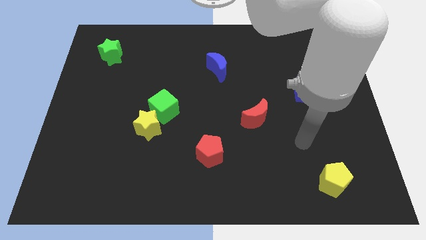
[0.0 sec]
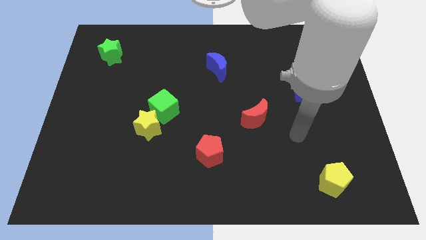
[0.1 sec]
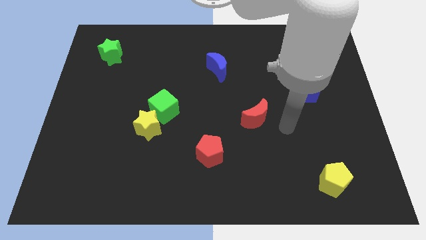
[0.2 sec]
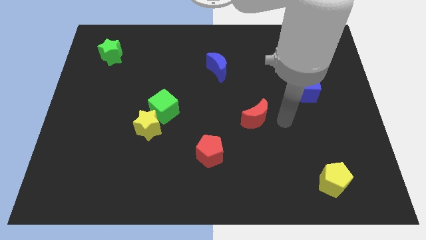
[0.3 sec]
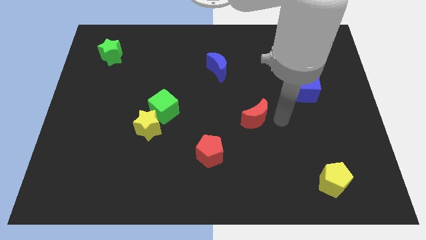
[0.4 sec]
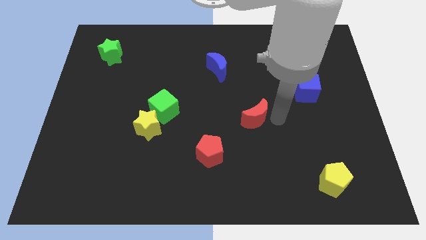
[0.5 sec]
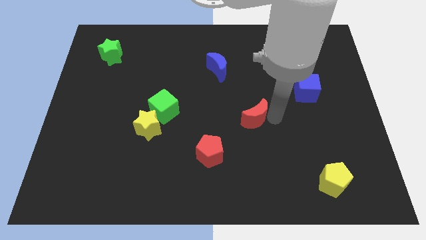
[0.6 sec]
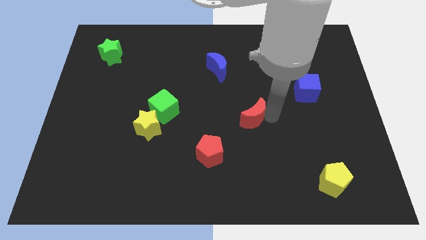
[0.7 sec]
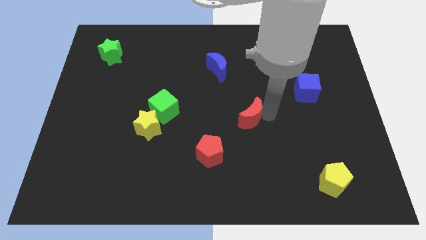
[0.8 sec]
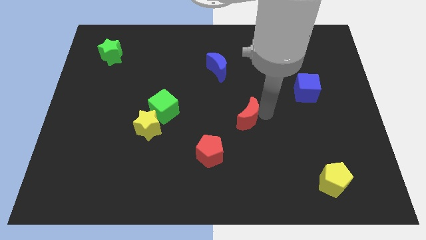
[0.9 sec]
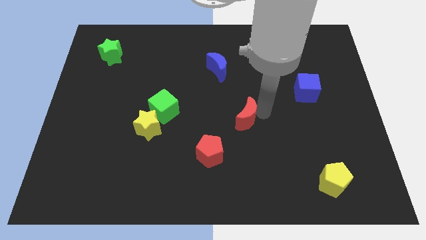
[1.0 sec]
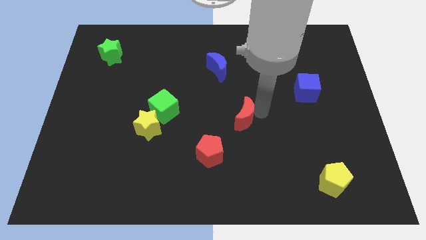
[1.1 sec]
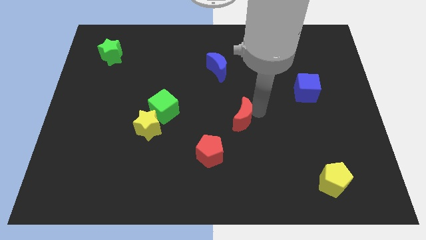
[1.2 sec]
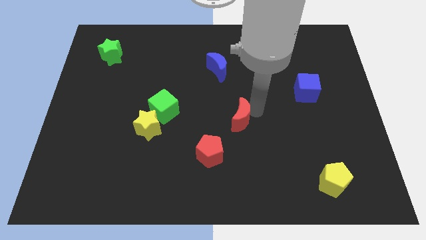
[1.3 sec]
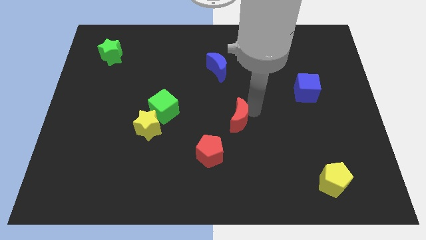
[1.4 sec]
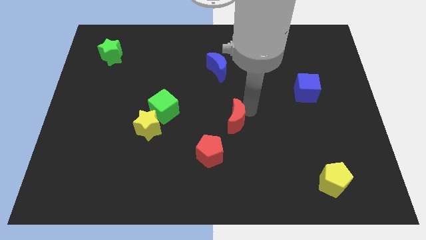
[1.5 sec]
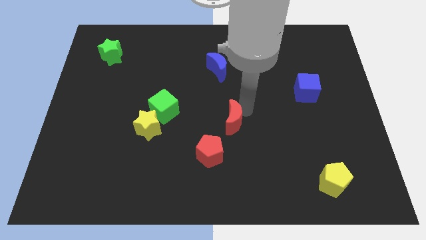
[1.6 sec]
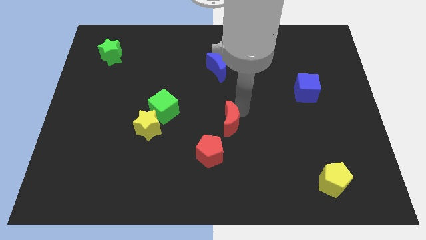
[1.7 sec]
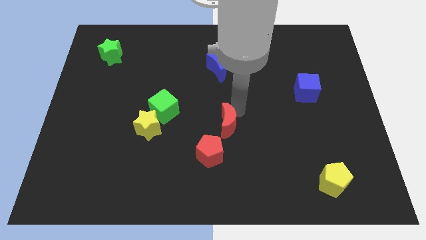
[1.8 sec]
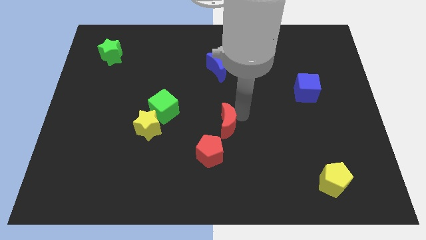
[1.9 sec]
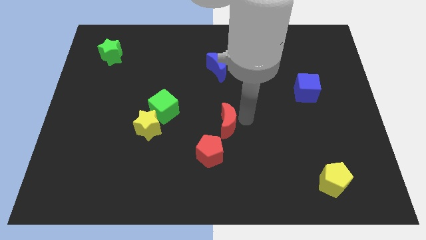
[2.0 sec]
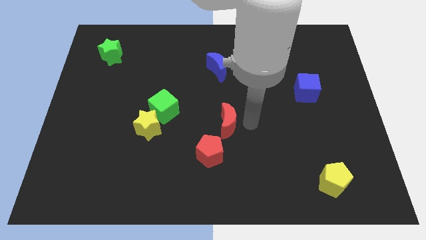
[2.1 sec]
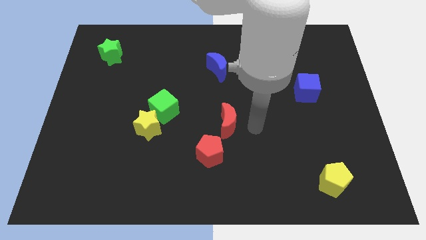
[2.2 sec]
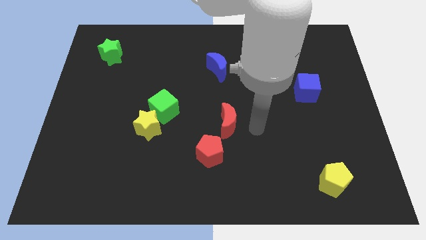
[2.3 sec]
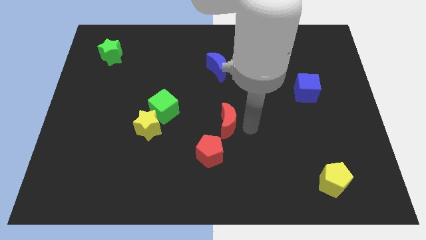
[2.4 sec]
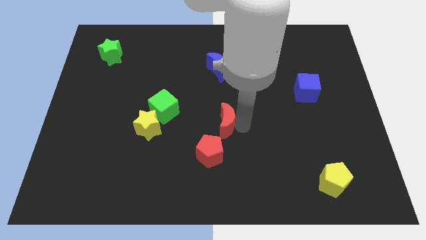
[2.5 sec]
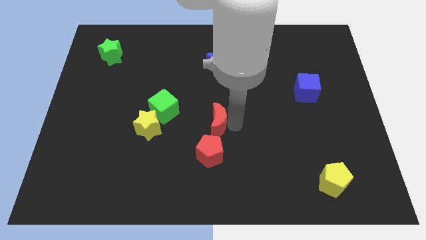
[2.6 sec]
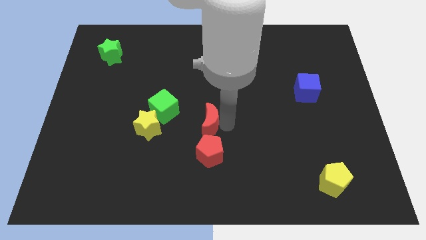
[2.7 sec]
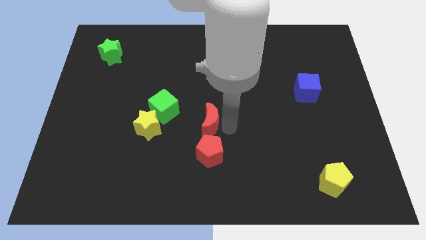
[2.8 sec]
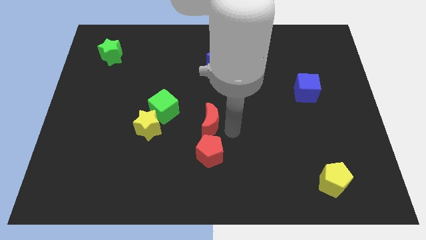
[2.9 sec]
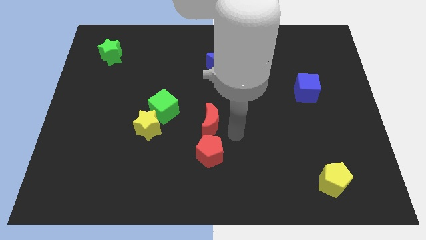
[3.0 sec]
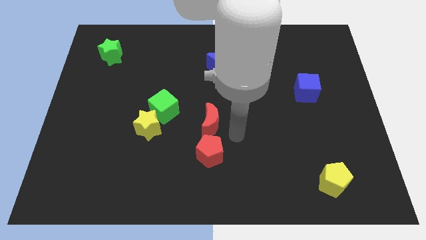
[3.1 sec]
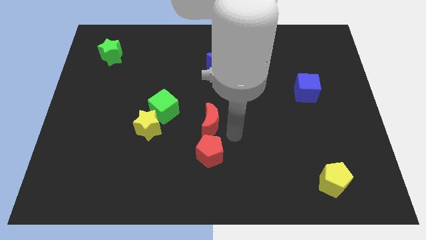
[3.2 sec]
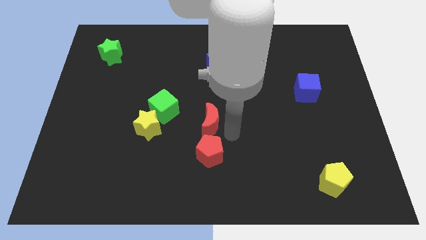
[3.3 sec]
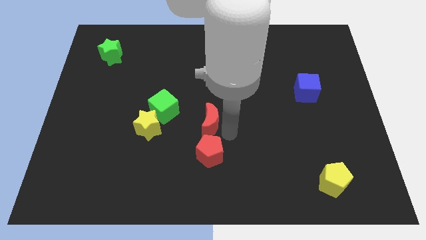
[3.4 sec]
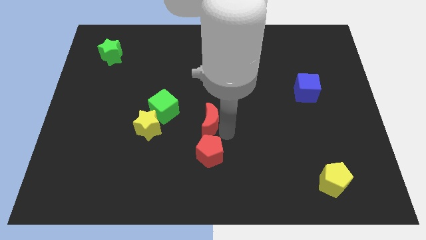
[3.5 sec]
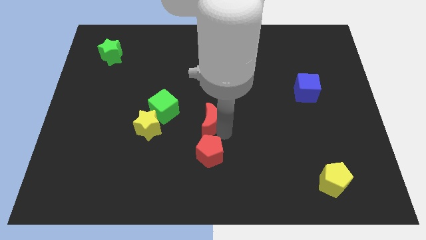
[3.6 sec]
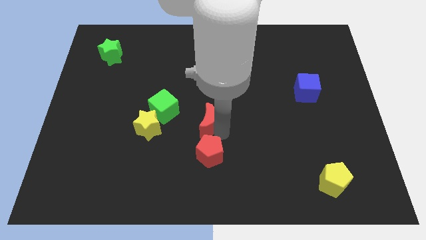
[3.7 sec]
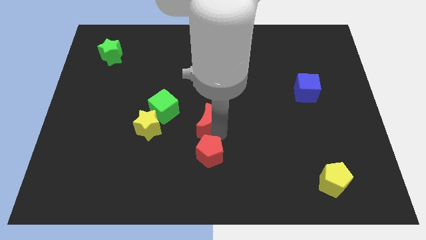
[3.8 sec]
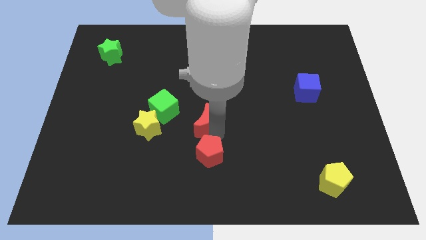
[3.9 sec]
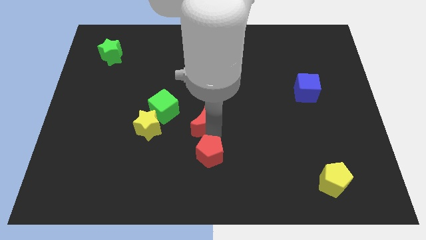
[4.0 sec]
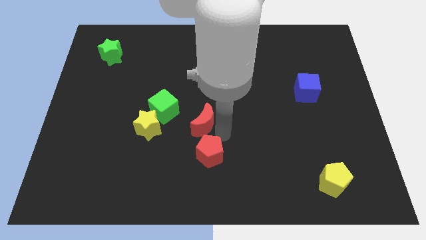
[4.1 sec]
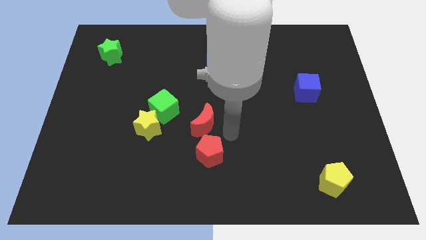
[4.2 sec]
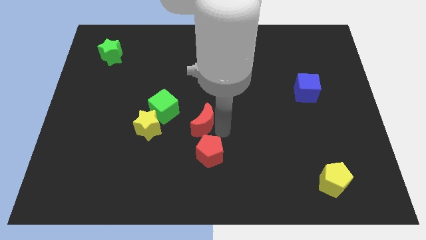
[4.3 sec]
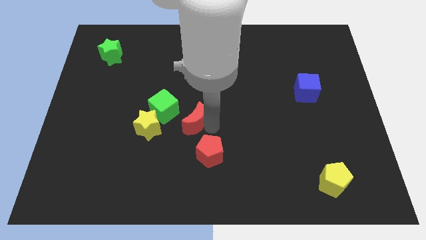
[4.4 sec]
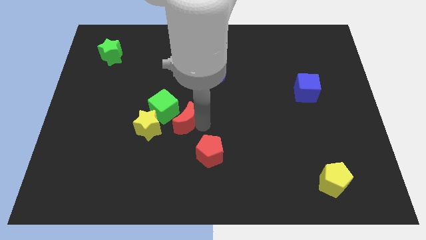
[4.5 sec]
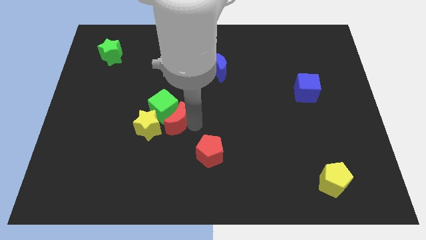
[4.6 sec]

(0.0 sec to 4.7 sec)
put the red moon towards the green cube

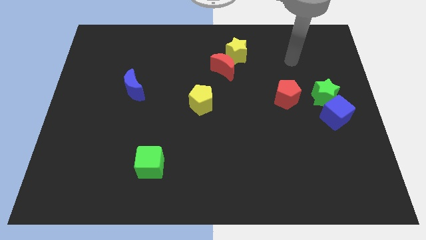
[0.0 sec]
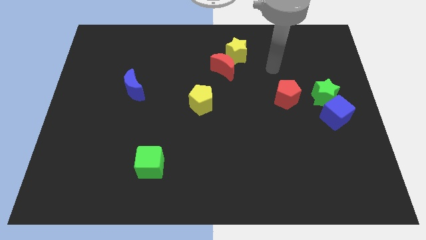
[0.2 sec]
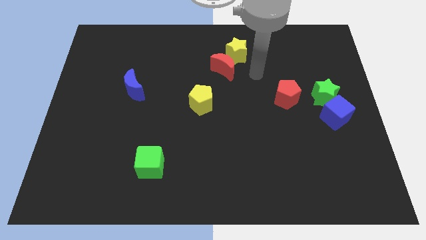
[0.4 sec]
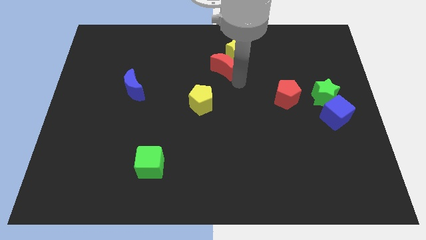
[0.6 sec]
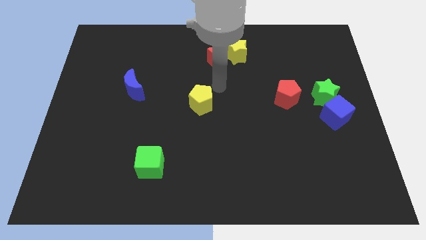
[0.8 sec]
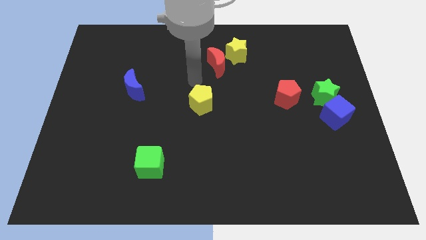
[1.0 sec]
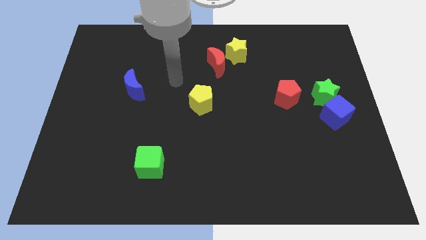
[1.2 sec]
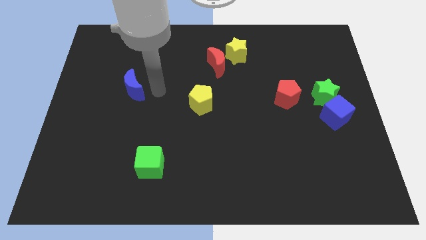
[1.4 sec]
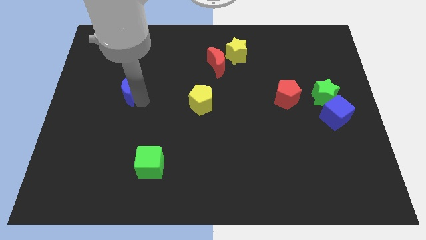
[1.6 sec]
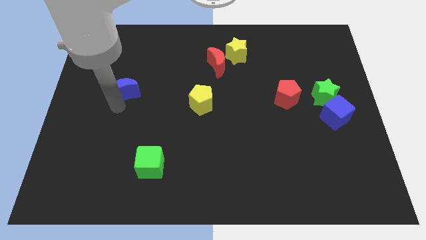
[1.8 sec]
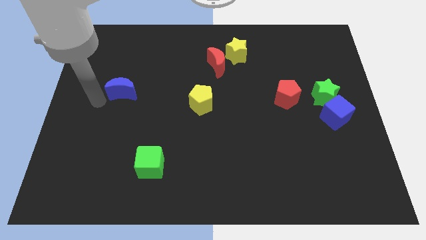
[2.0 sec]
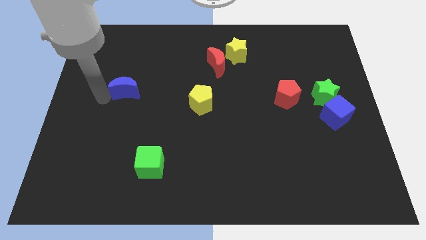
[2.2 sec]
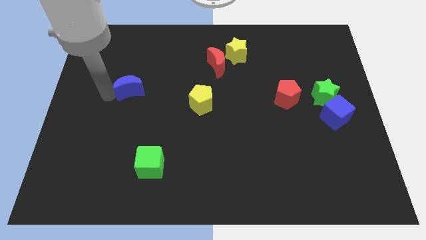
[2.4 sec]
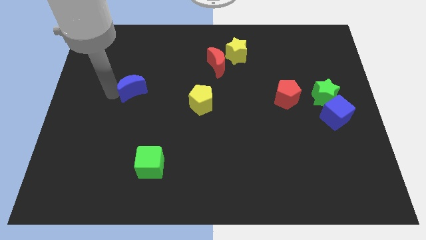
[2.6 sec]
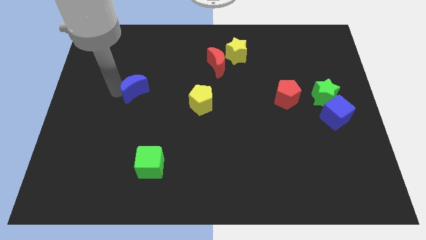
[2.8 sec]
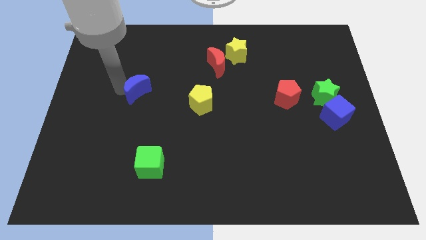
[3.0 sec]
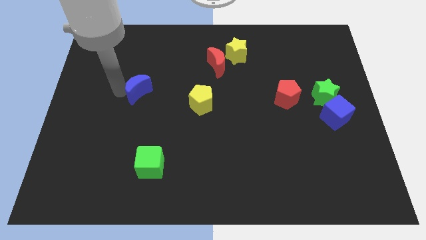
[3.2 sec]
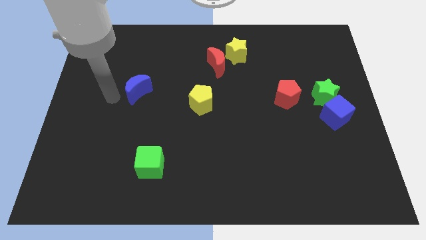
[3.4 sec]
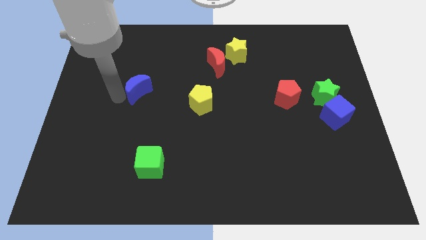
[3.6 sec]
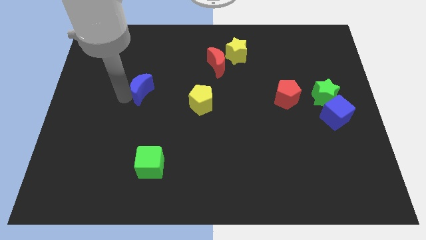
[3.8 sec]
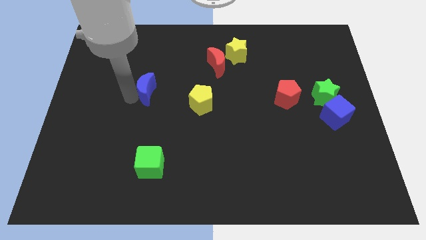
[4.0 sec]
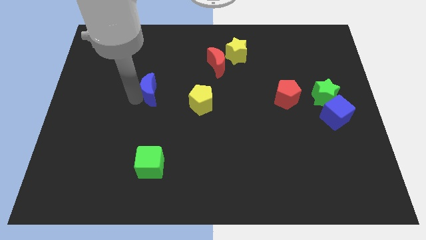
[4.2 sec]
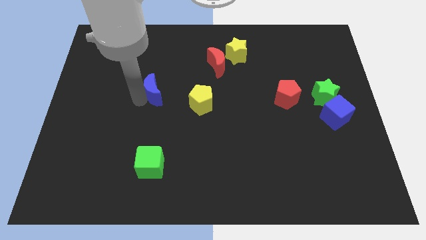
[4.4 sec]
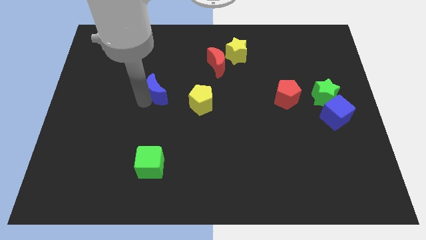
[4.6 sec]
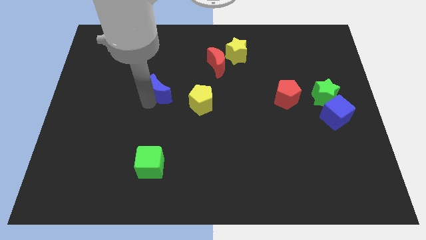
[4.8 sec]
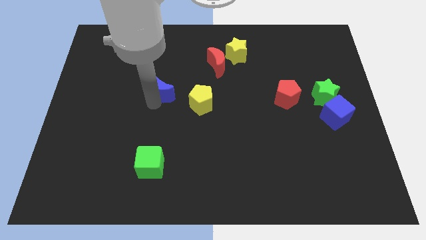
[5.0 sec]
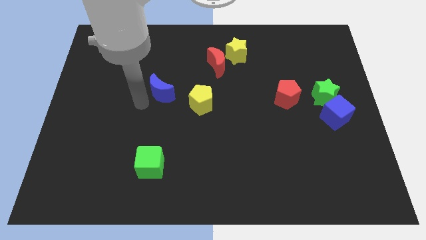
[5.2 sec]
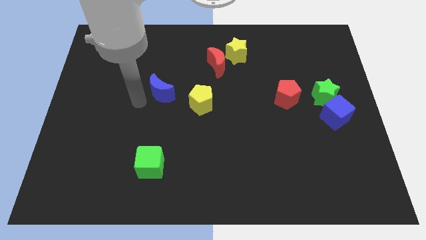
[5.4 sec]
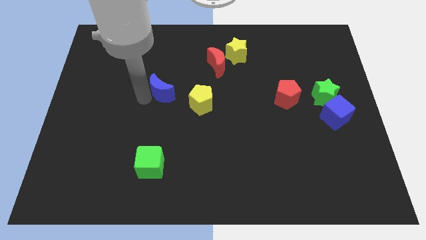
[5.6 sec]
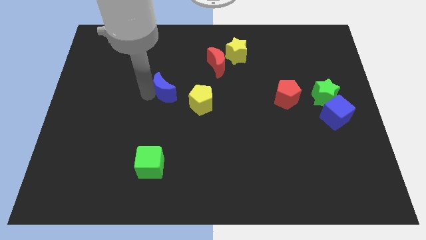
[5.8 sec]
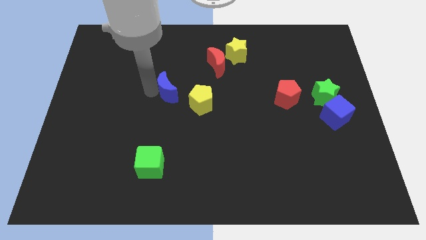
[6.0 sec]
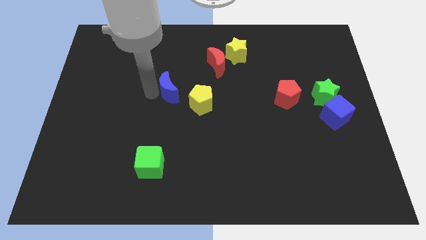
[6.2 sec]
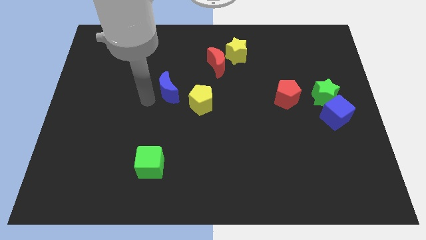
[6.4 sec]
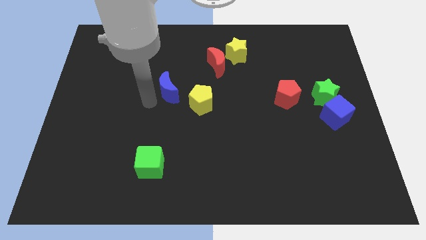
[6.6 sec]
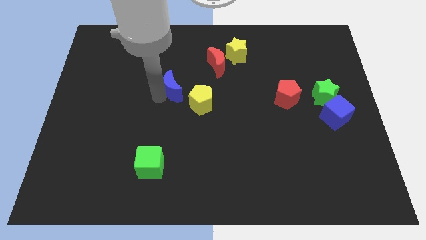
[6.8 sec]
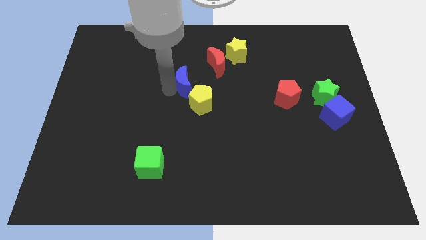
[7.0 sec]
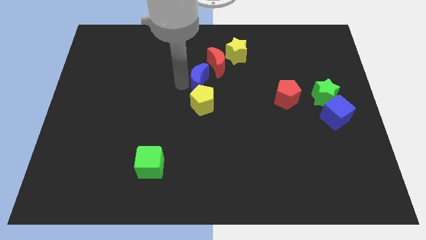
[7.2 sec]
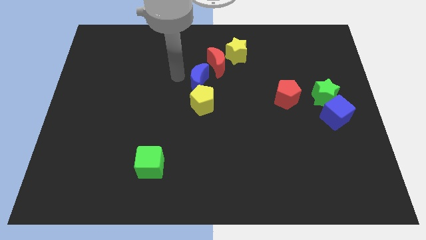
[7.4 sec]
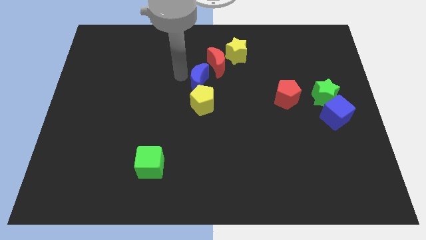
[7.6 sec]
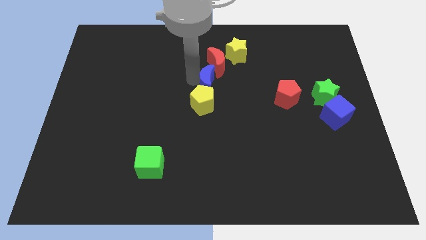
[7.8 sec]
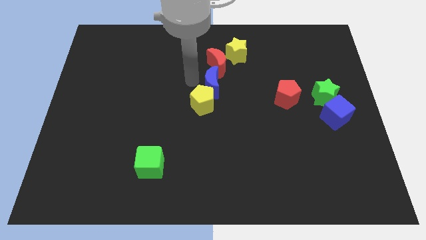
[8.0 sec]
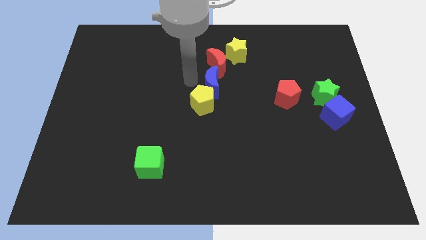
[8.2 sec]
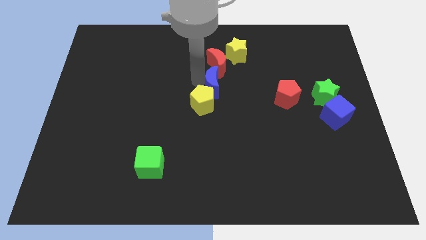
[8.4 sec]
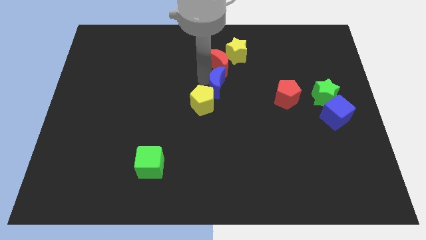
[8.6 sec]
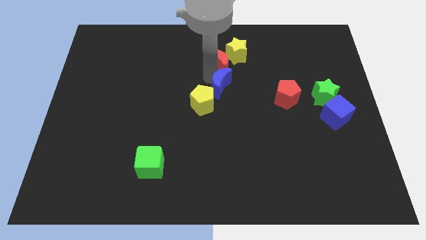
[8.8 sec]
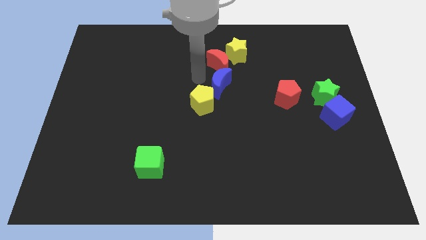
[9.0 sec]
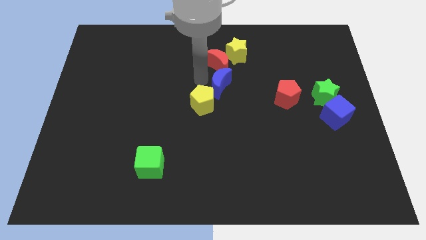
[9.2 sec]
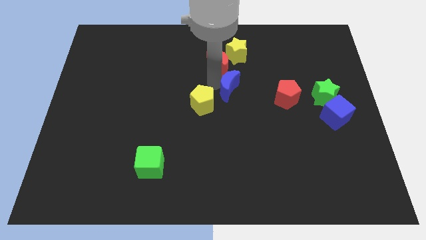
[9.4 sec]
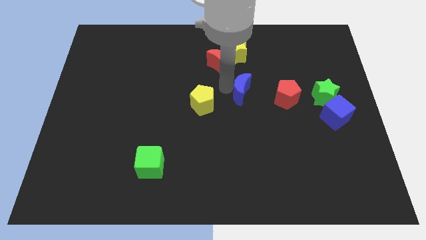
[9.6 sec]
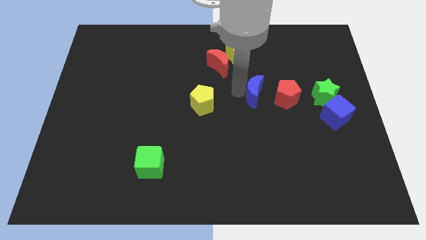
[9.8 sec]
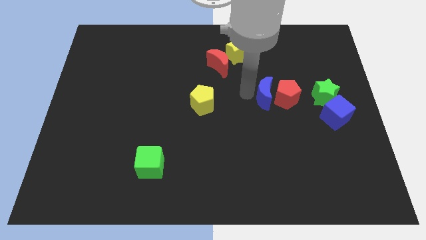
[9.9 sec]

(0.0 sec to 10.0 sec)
move the blue moon to the red pentagon
